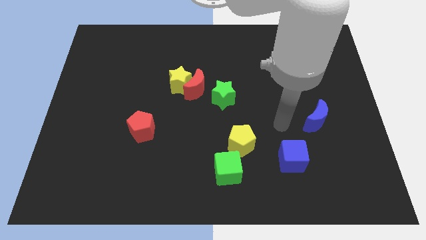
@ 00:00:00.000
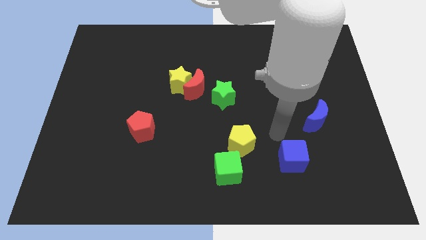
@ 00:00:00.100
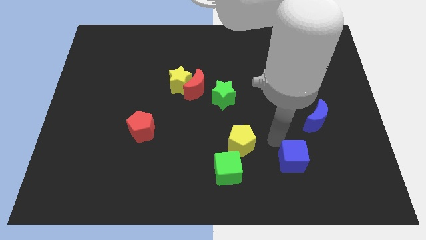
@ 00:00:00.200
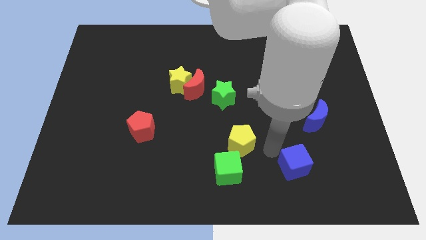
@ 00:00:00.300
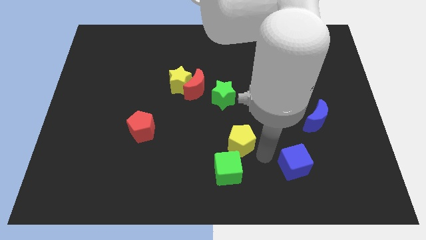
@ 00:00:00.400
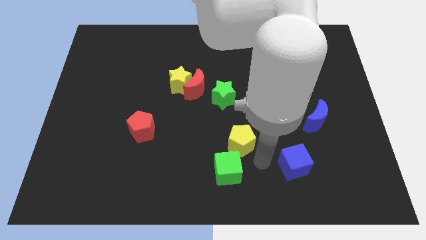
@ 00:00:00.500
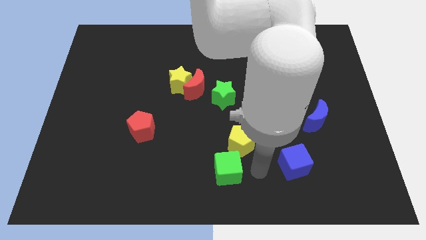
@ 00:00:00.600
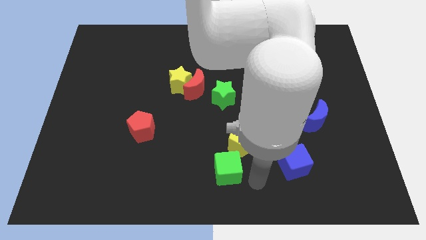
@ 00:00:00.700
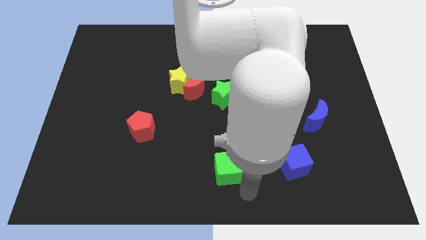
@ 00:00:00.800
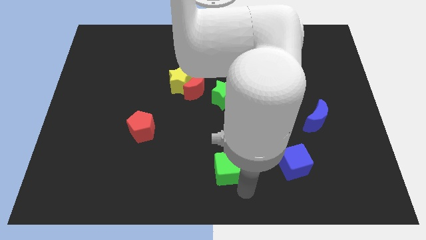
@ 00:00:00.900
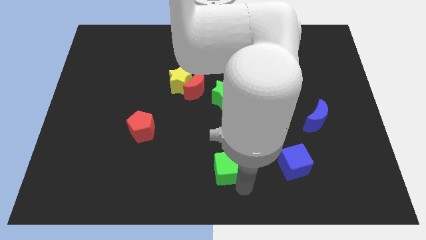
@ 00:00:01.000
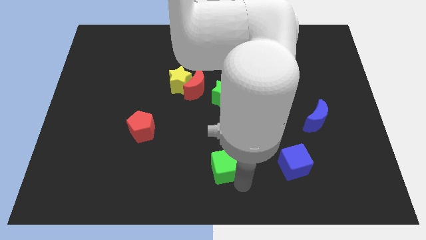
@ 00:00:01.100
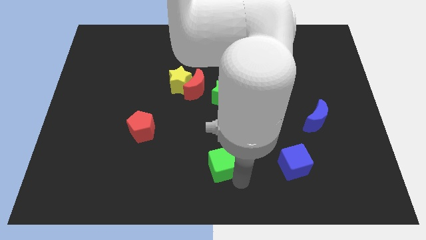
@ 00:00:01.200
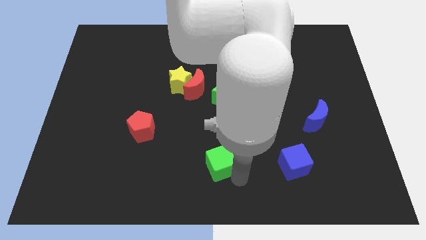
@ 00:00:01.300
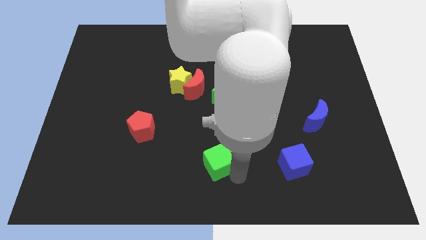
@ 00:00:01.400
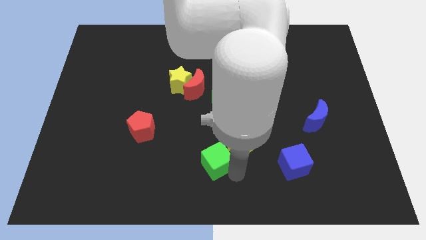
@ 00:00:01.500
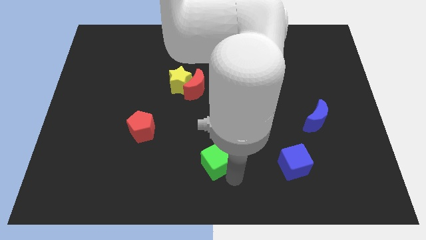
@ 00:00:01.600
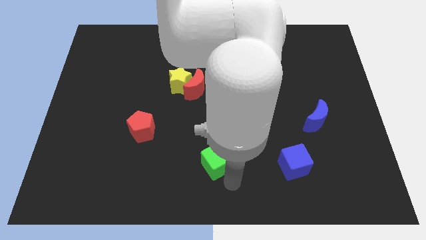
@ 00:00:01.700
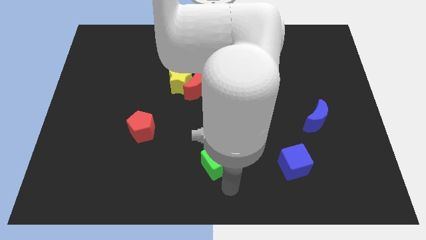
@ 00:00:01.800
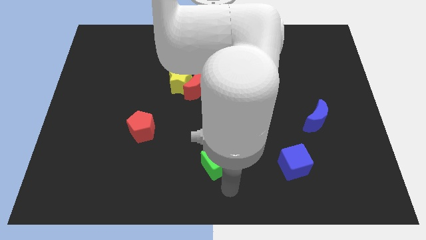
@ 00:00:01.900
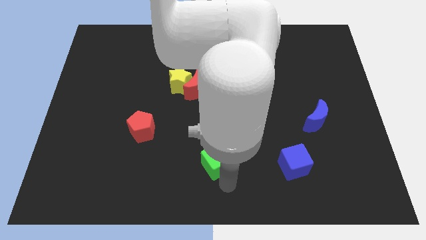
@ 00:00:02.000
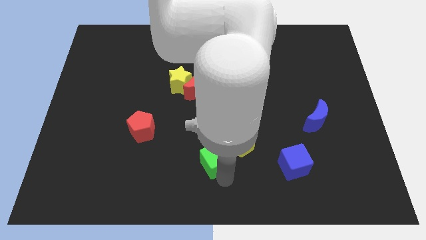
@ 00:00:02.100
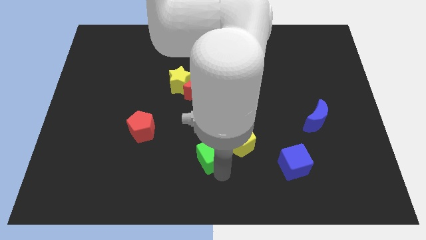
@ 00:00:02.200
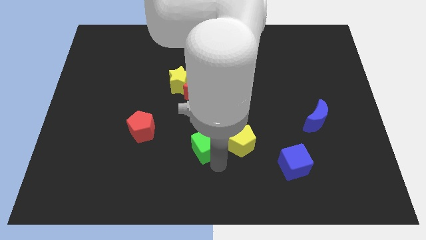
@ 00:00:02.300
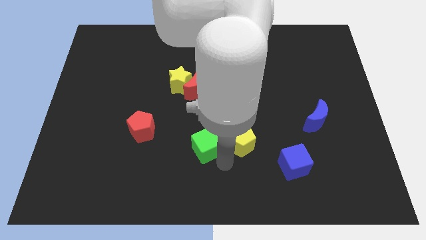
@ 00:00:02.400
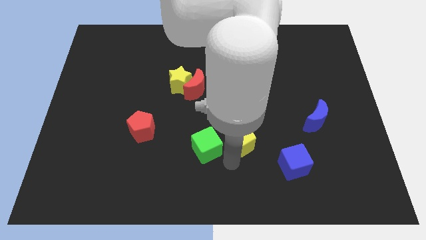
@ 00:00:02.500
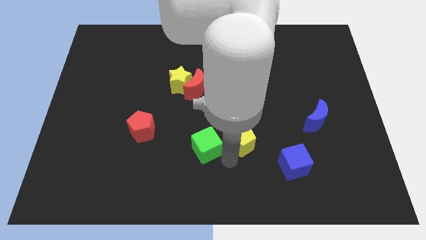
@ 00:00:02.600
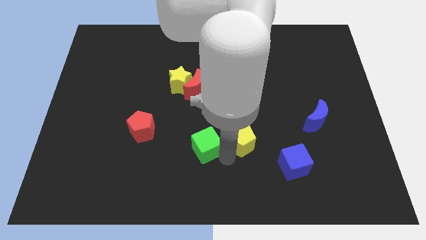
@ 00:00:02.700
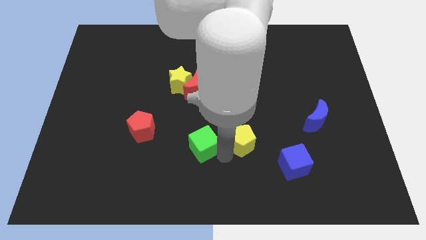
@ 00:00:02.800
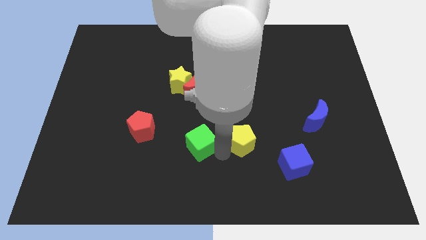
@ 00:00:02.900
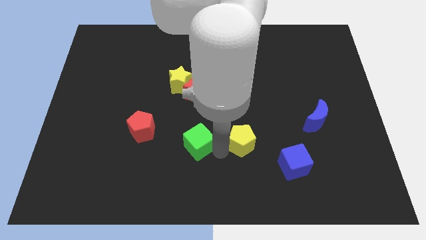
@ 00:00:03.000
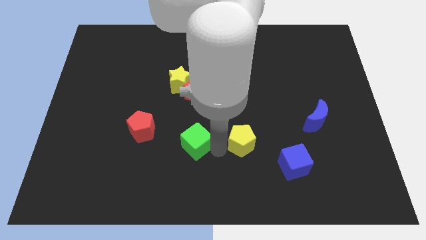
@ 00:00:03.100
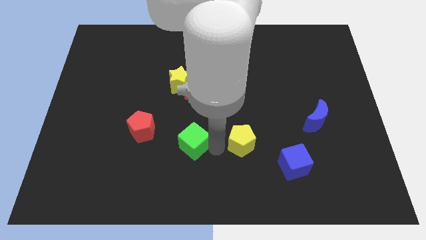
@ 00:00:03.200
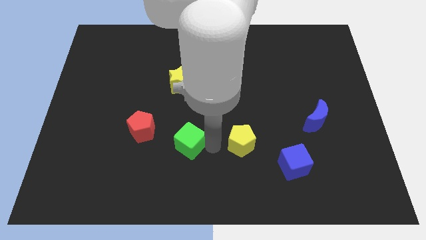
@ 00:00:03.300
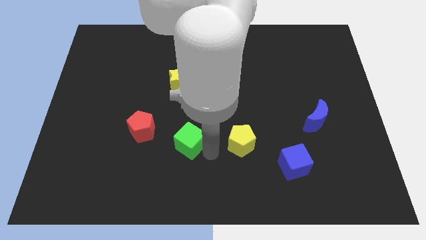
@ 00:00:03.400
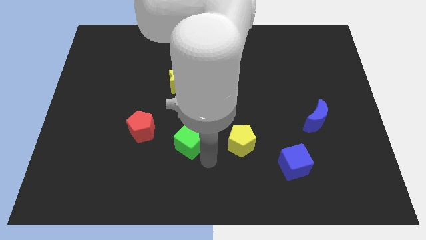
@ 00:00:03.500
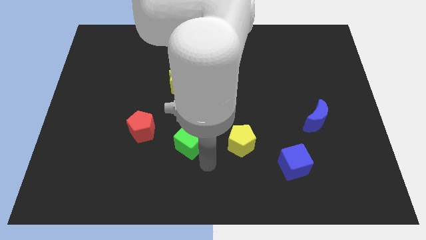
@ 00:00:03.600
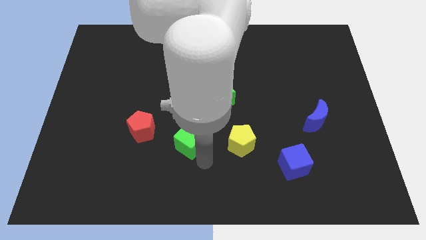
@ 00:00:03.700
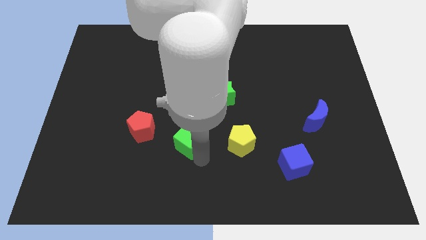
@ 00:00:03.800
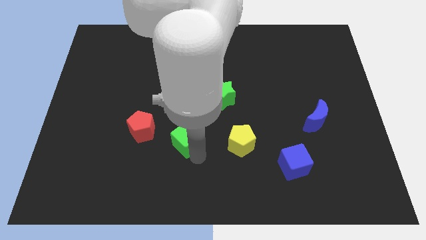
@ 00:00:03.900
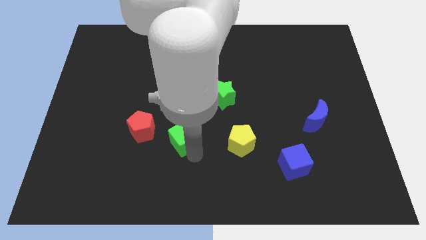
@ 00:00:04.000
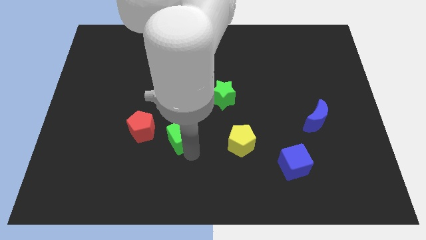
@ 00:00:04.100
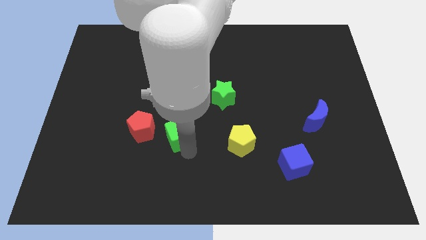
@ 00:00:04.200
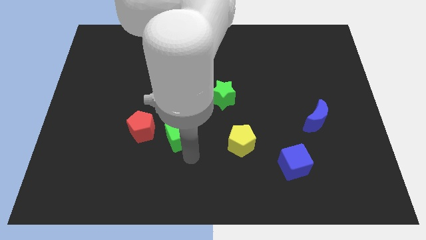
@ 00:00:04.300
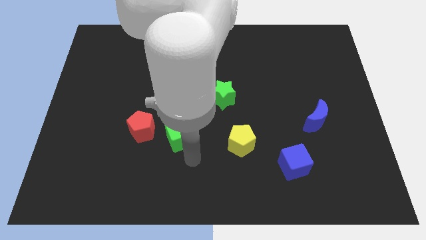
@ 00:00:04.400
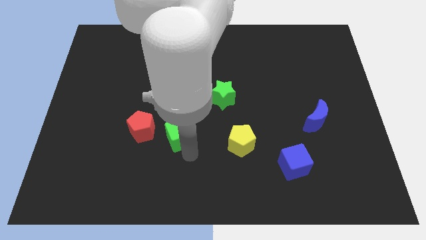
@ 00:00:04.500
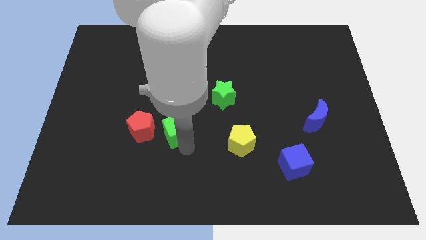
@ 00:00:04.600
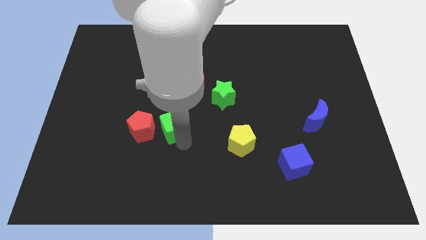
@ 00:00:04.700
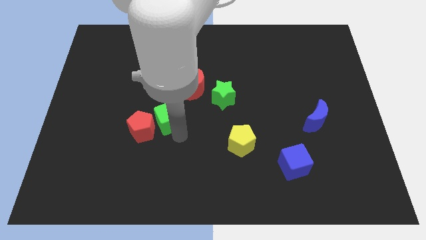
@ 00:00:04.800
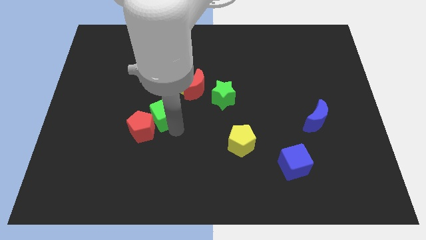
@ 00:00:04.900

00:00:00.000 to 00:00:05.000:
slide the green cube to the top of the red pentagon

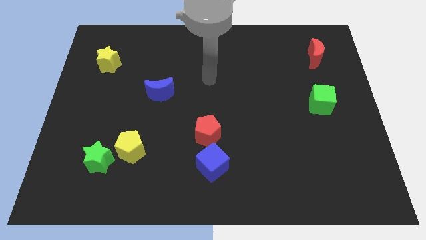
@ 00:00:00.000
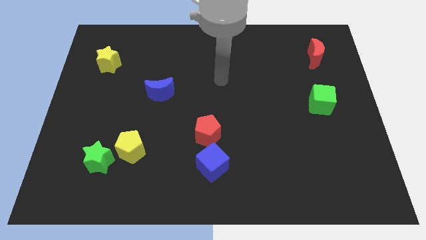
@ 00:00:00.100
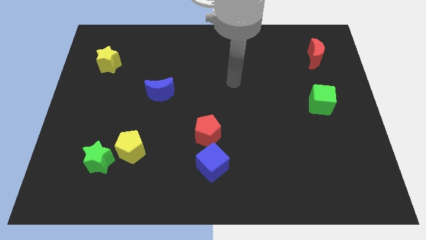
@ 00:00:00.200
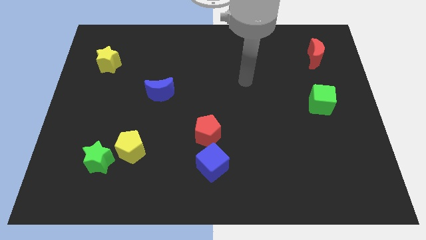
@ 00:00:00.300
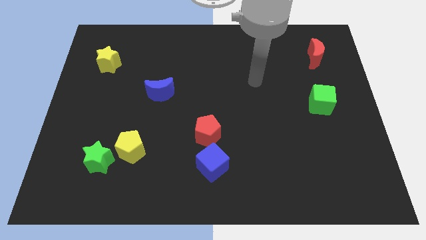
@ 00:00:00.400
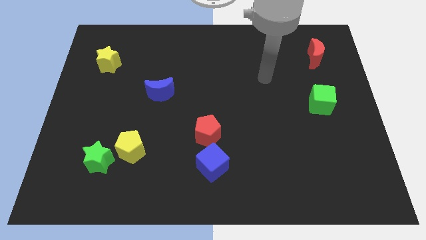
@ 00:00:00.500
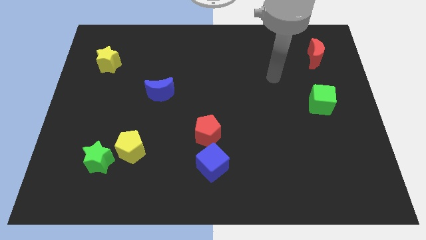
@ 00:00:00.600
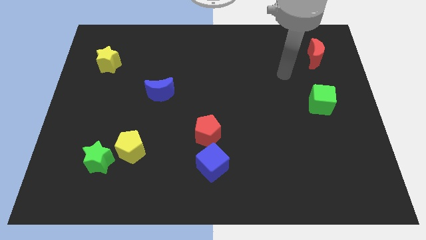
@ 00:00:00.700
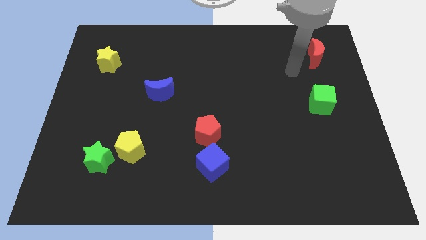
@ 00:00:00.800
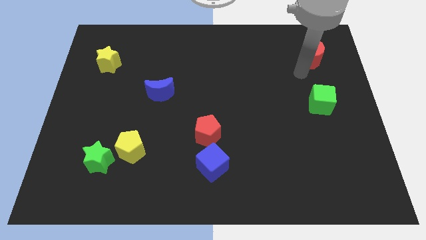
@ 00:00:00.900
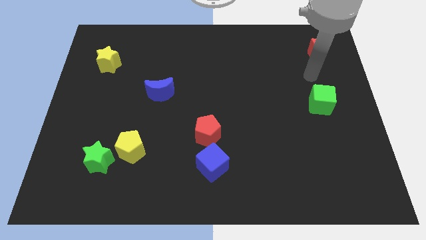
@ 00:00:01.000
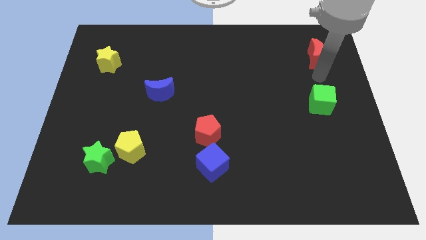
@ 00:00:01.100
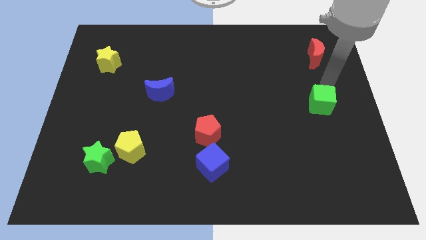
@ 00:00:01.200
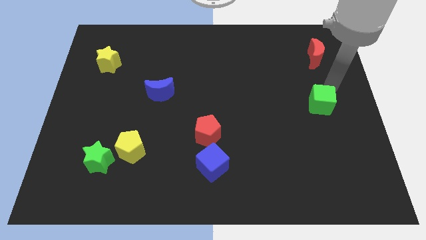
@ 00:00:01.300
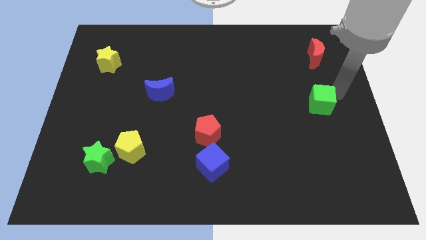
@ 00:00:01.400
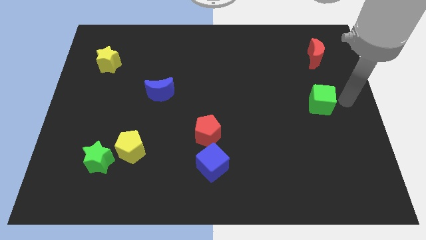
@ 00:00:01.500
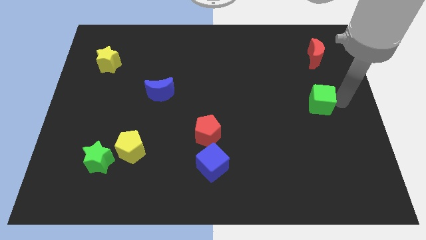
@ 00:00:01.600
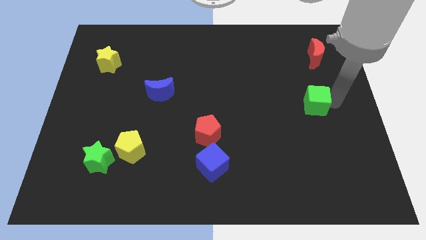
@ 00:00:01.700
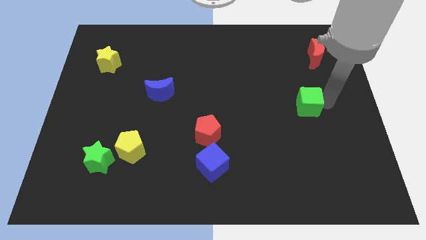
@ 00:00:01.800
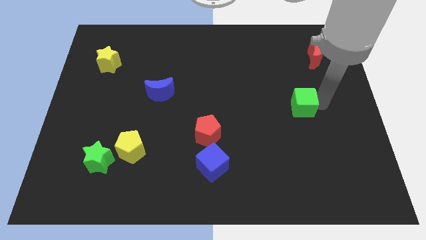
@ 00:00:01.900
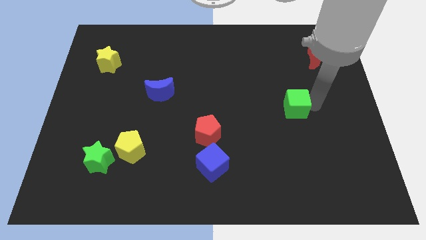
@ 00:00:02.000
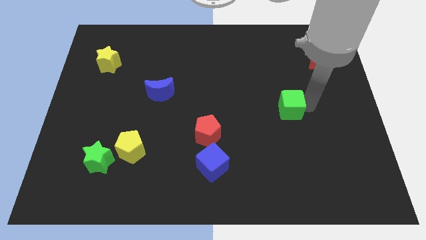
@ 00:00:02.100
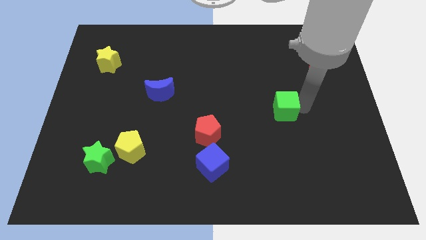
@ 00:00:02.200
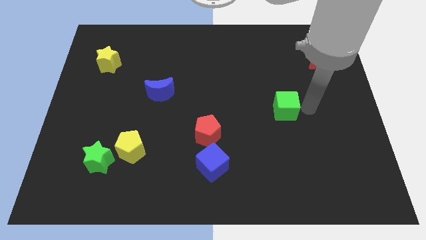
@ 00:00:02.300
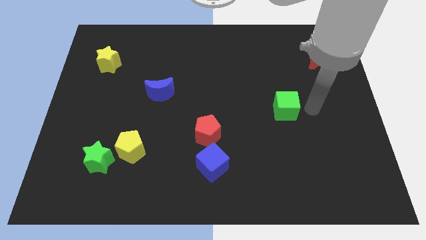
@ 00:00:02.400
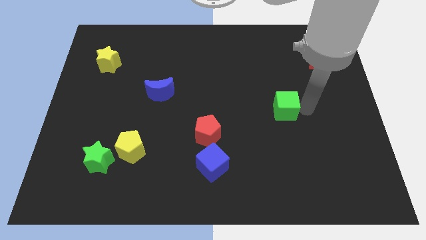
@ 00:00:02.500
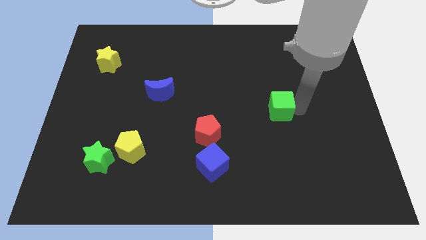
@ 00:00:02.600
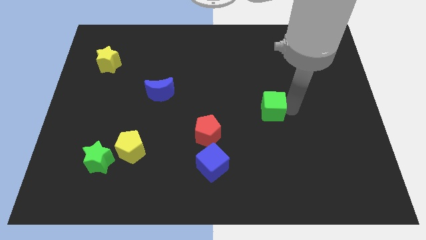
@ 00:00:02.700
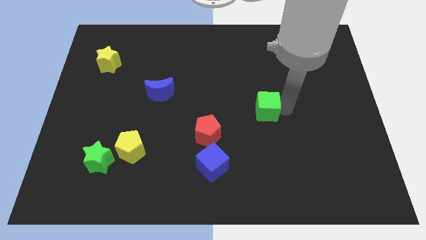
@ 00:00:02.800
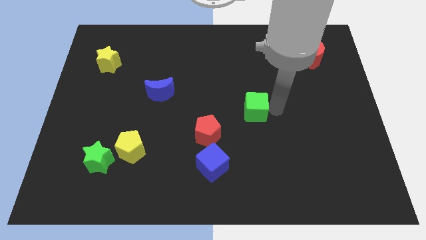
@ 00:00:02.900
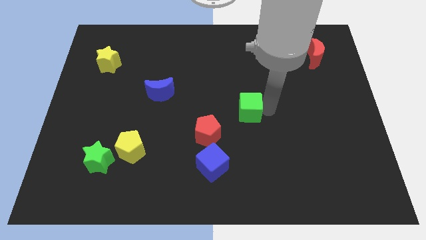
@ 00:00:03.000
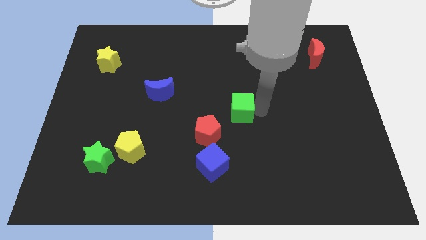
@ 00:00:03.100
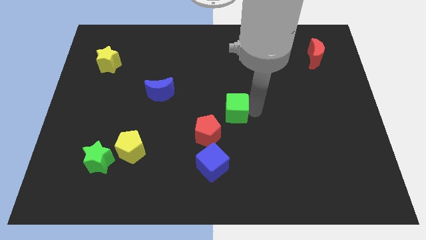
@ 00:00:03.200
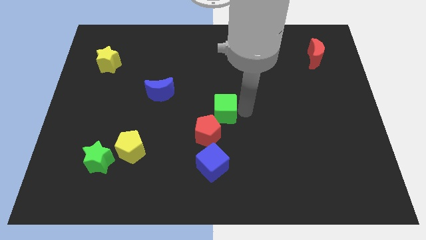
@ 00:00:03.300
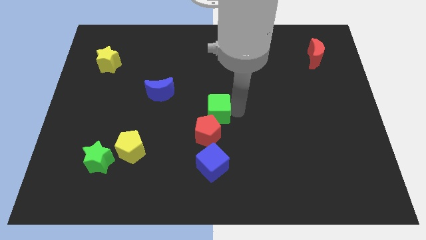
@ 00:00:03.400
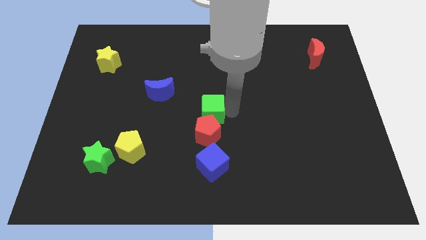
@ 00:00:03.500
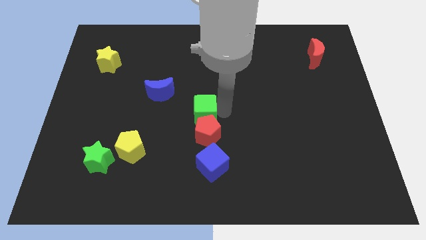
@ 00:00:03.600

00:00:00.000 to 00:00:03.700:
slide the green cube diagonally up and to the left of the red pentagon
